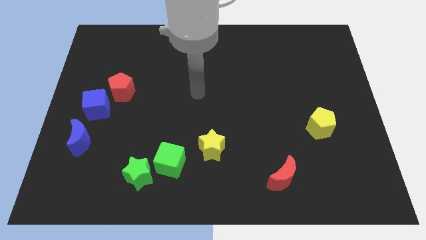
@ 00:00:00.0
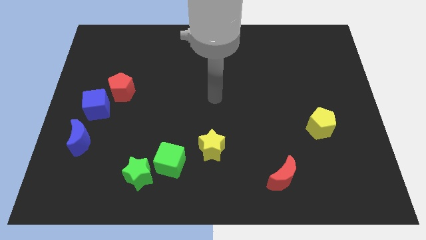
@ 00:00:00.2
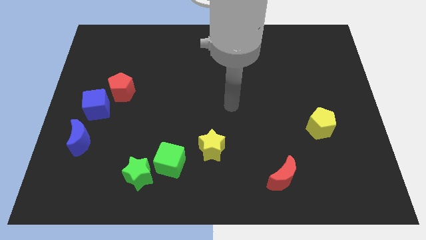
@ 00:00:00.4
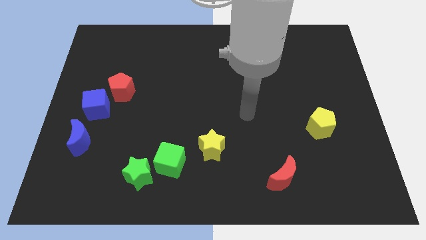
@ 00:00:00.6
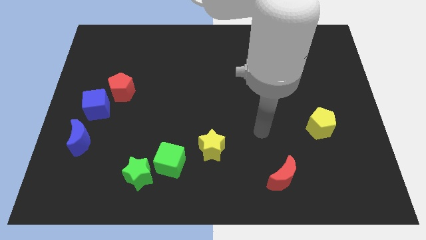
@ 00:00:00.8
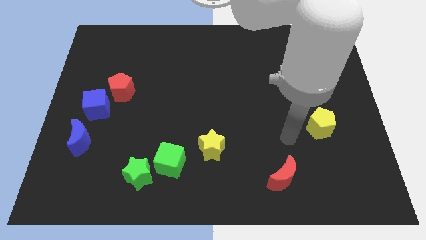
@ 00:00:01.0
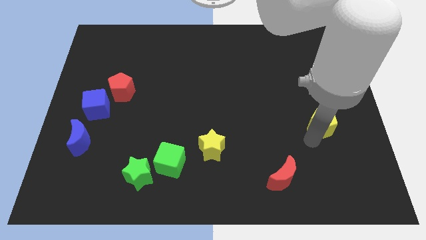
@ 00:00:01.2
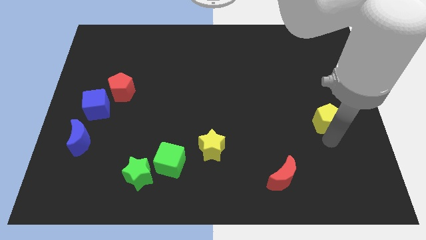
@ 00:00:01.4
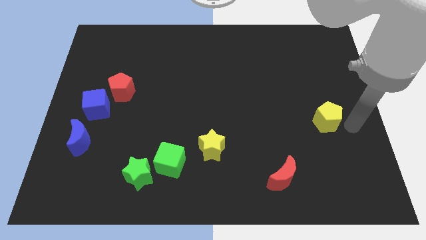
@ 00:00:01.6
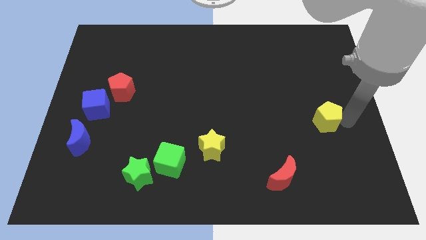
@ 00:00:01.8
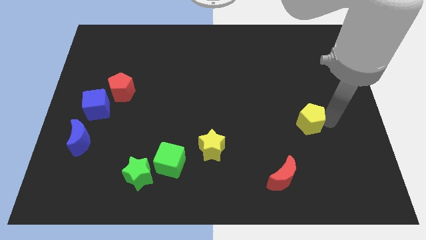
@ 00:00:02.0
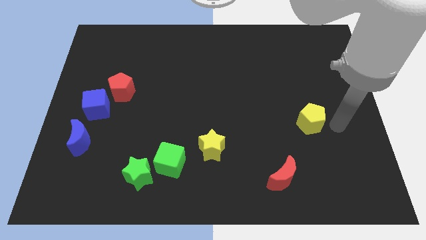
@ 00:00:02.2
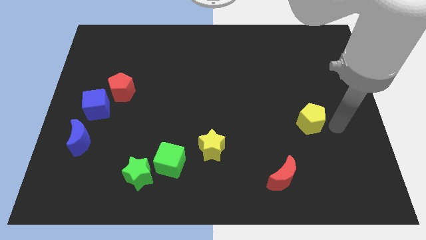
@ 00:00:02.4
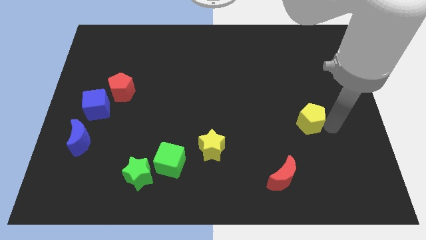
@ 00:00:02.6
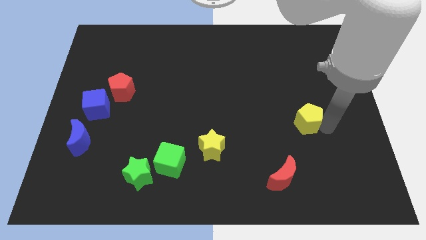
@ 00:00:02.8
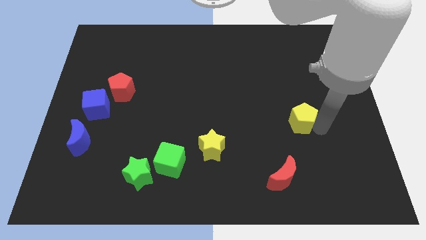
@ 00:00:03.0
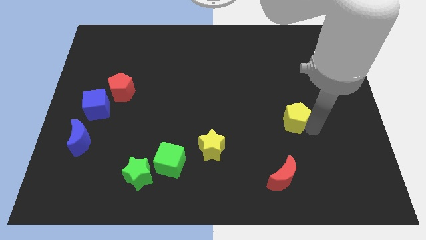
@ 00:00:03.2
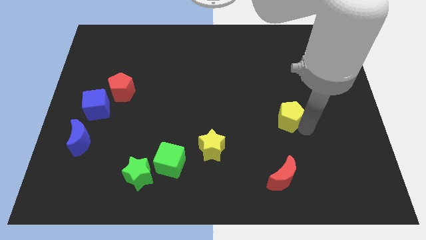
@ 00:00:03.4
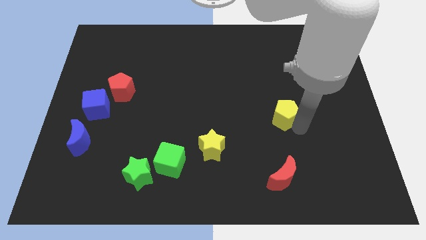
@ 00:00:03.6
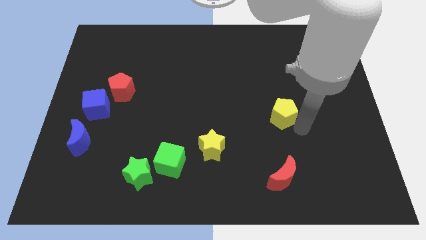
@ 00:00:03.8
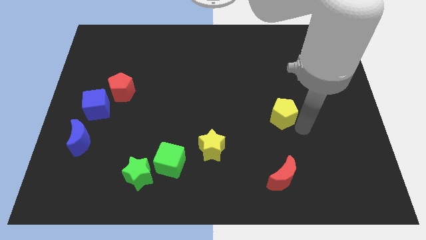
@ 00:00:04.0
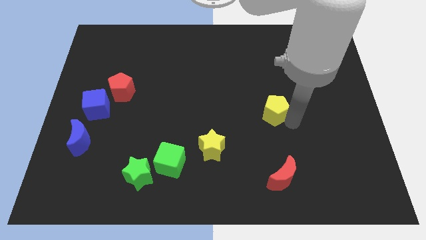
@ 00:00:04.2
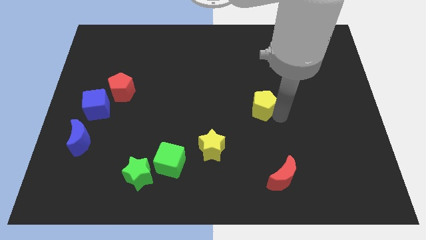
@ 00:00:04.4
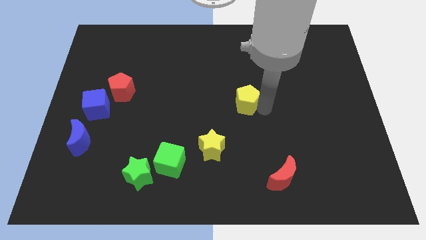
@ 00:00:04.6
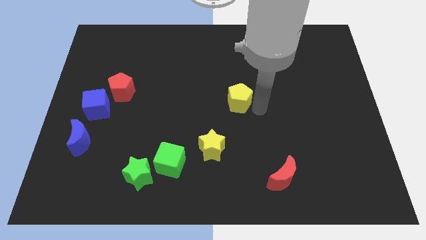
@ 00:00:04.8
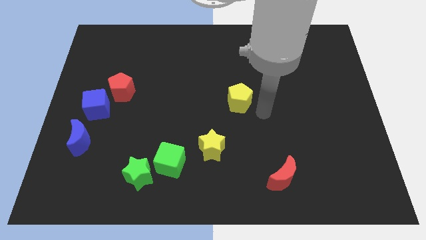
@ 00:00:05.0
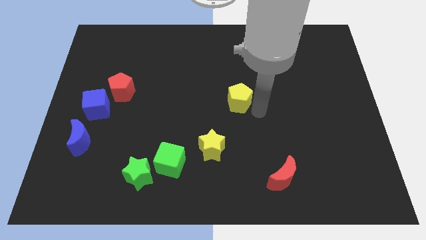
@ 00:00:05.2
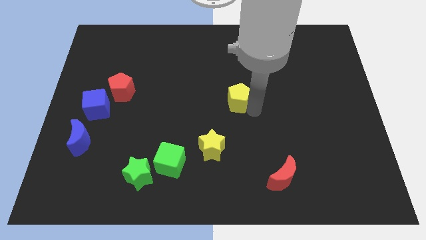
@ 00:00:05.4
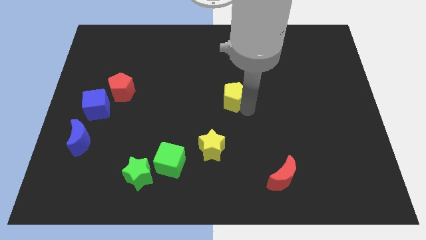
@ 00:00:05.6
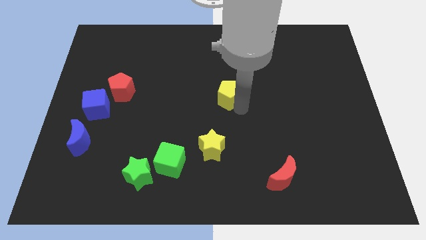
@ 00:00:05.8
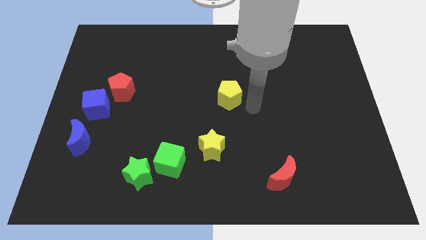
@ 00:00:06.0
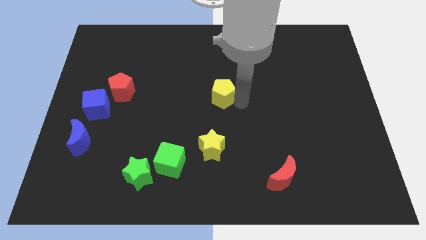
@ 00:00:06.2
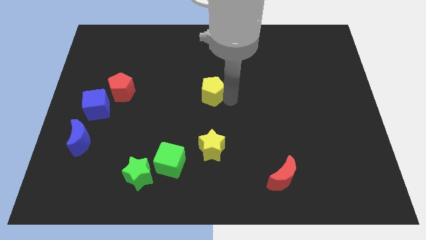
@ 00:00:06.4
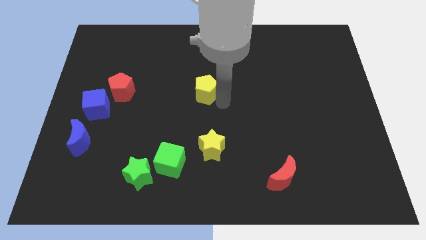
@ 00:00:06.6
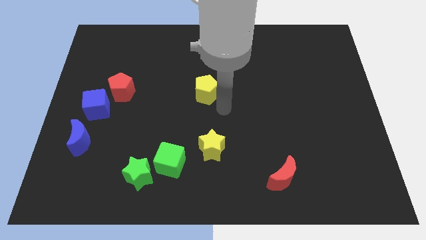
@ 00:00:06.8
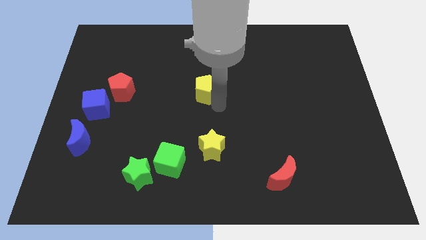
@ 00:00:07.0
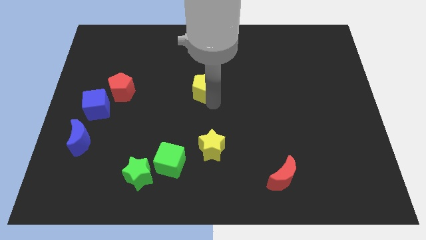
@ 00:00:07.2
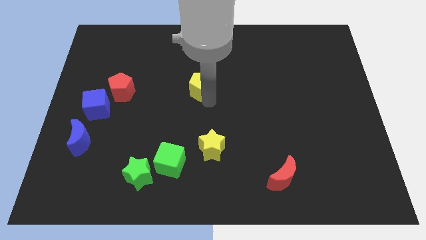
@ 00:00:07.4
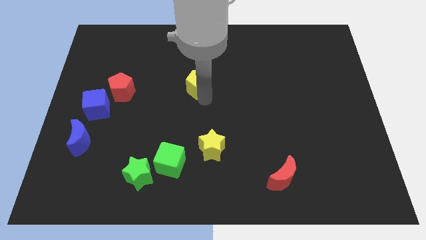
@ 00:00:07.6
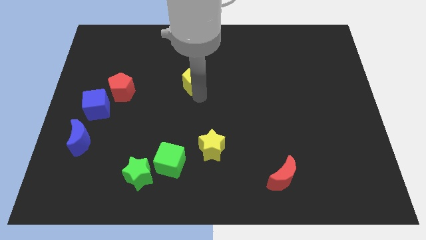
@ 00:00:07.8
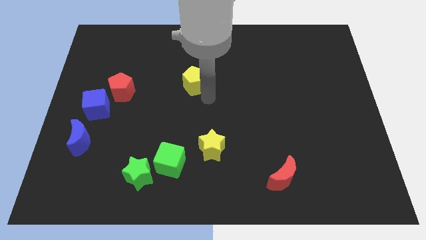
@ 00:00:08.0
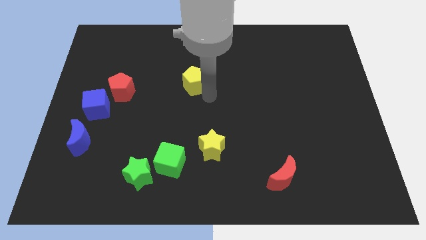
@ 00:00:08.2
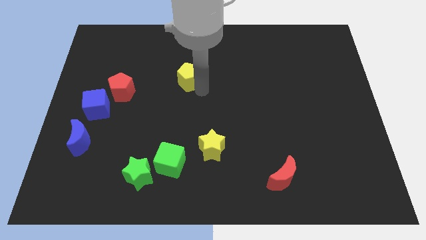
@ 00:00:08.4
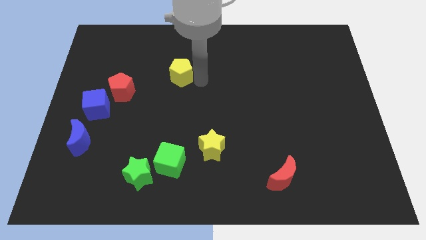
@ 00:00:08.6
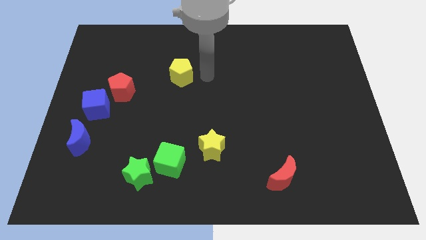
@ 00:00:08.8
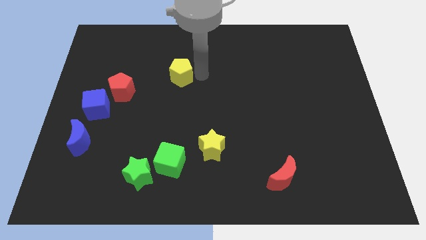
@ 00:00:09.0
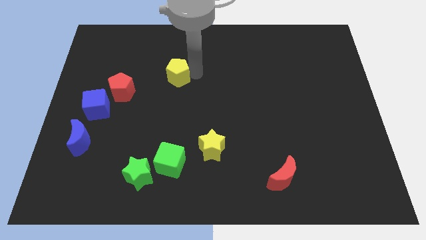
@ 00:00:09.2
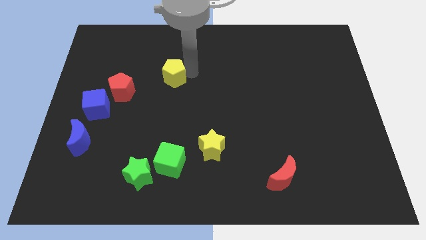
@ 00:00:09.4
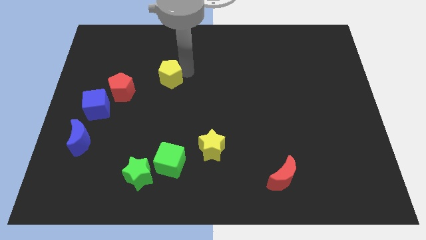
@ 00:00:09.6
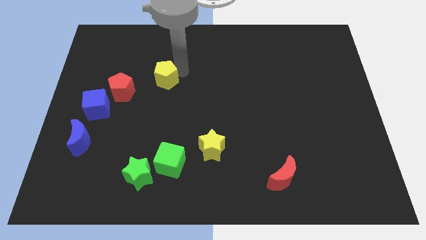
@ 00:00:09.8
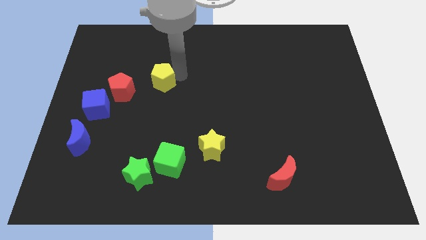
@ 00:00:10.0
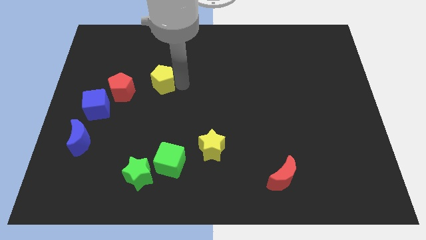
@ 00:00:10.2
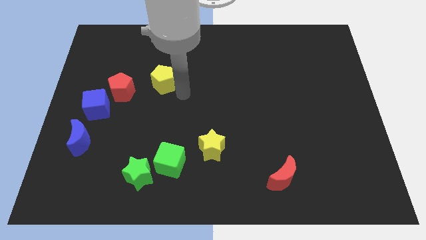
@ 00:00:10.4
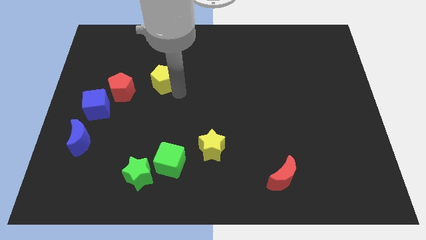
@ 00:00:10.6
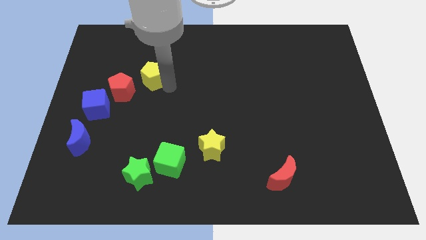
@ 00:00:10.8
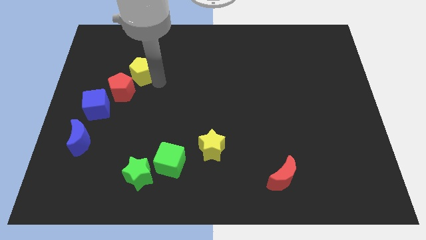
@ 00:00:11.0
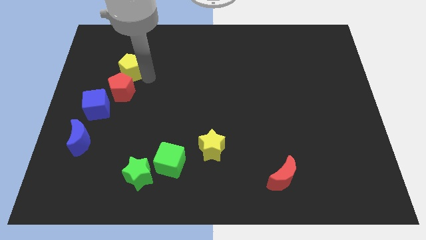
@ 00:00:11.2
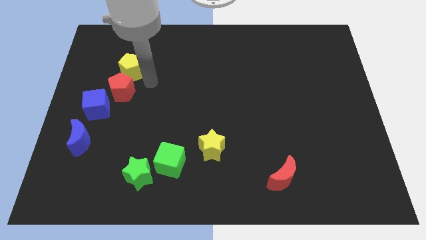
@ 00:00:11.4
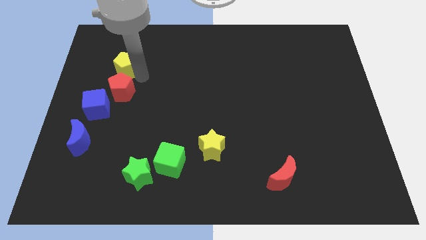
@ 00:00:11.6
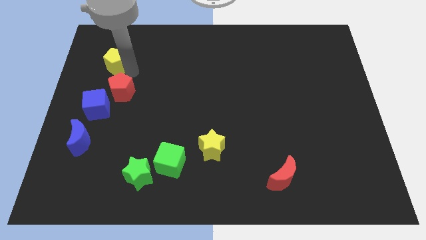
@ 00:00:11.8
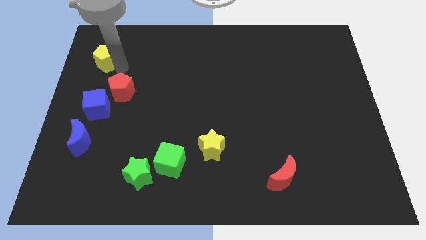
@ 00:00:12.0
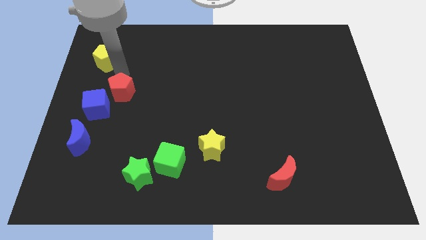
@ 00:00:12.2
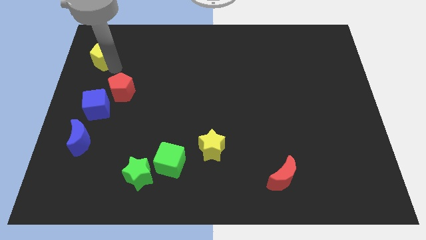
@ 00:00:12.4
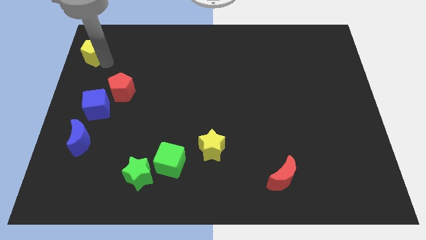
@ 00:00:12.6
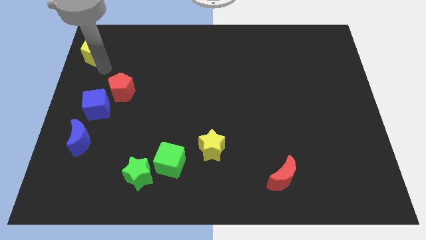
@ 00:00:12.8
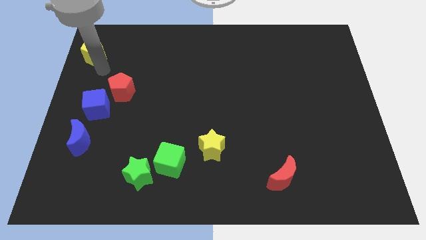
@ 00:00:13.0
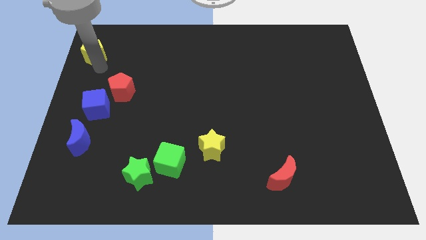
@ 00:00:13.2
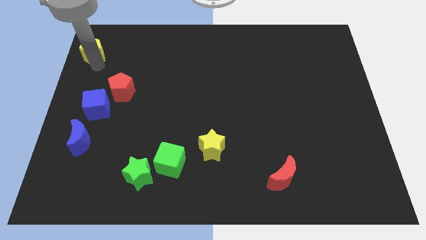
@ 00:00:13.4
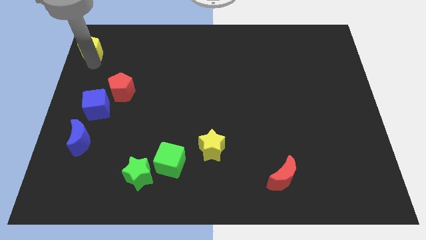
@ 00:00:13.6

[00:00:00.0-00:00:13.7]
slide the yellow pentagon to the upper left corner
